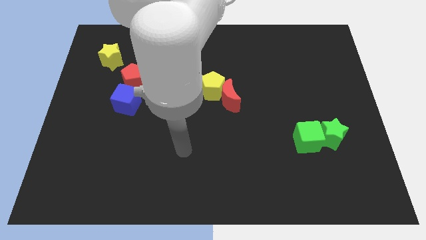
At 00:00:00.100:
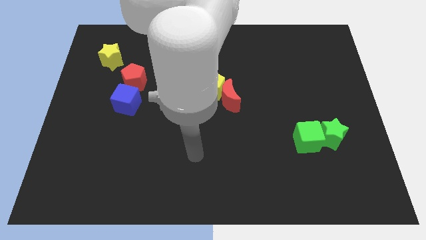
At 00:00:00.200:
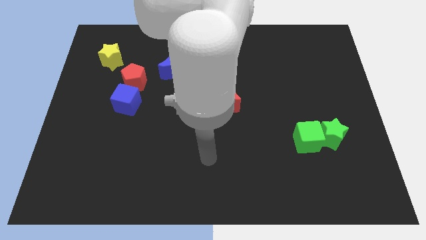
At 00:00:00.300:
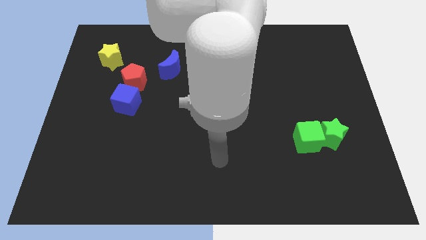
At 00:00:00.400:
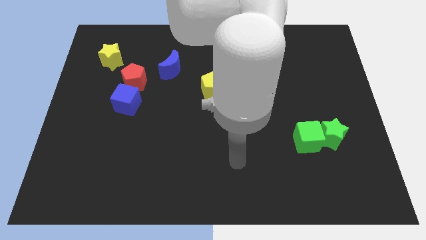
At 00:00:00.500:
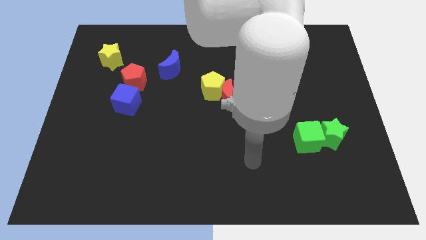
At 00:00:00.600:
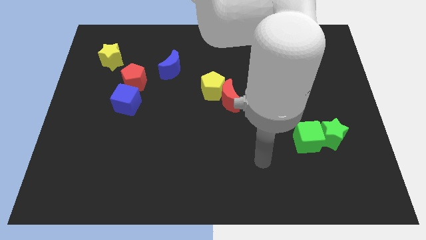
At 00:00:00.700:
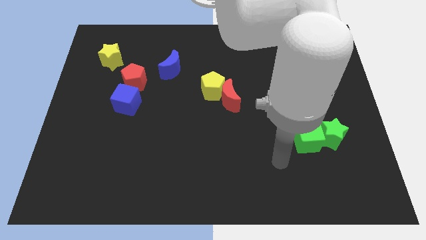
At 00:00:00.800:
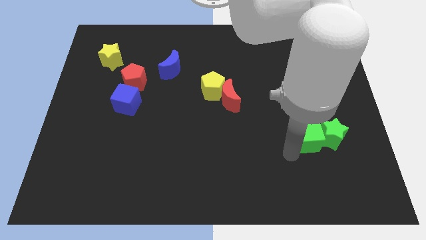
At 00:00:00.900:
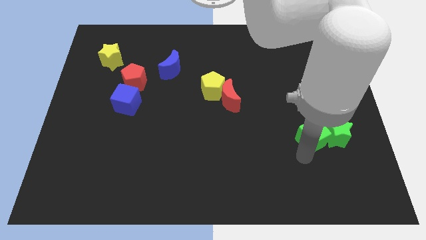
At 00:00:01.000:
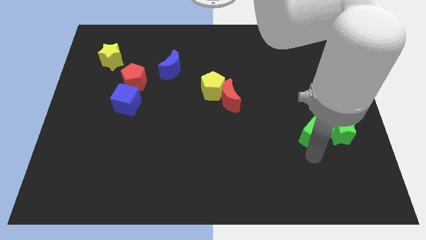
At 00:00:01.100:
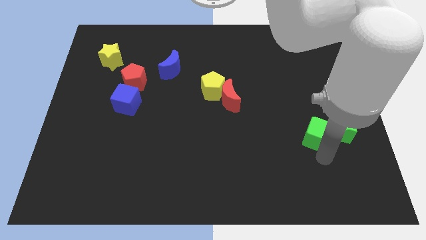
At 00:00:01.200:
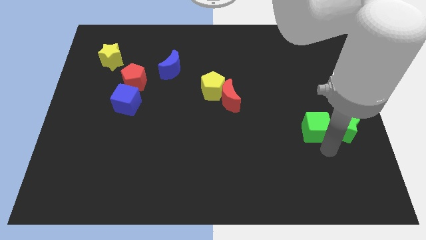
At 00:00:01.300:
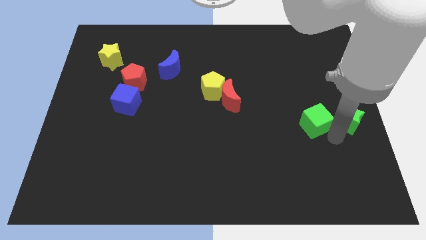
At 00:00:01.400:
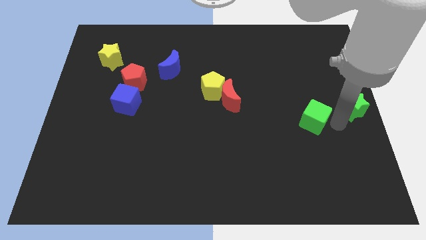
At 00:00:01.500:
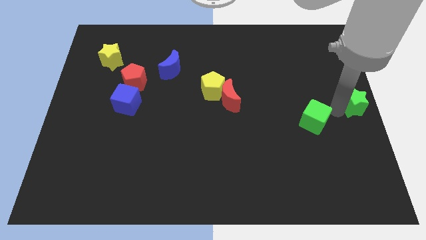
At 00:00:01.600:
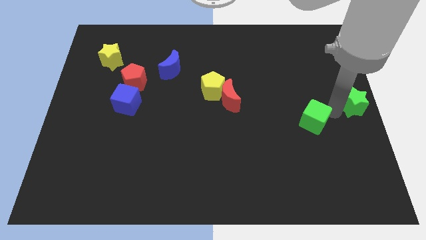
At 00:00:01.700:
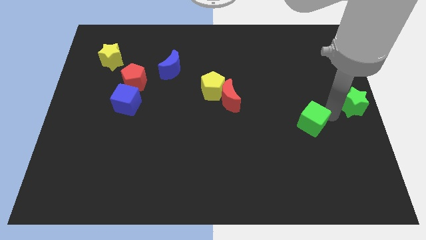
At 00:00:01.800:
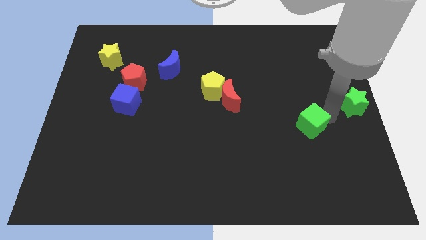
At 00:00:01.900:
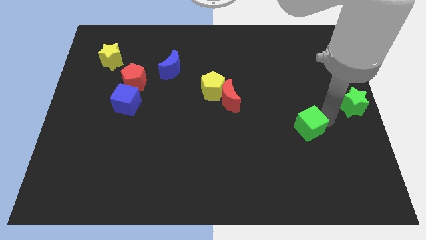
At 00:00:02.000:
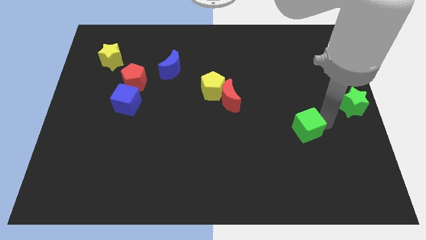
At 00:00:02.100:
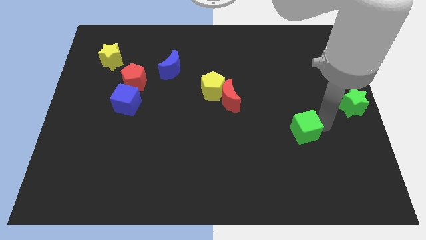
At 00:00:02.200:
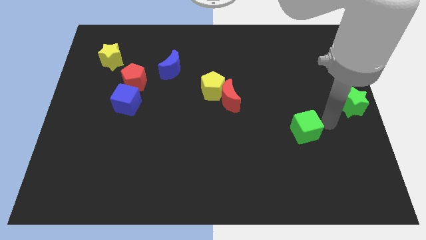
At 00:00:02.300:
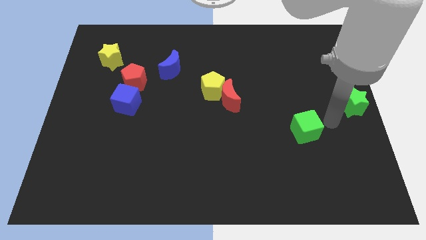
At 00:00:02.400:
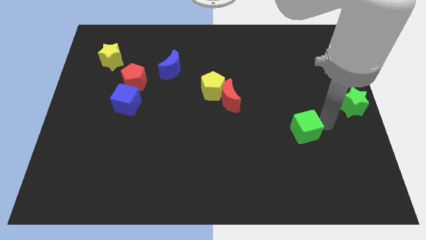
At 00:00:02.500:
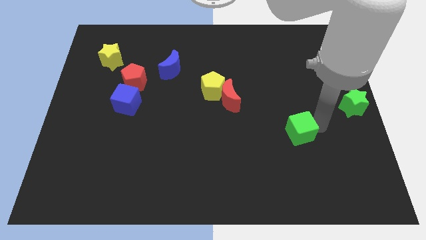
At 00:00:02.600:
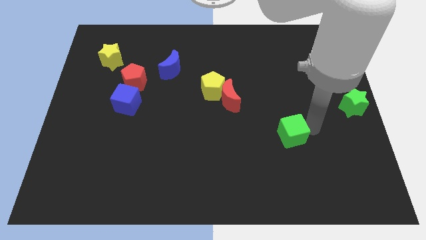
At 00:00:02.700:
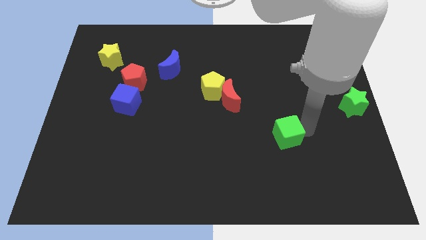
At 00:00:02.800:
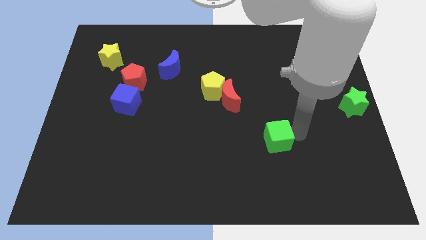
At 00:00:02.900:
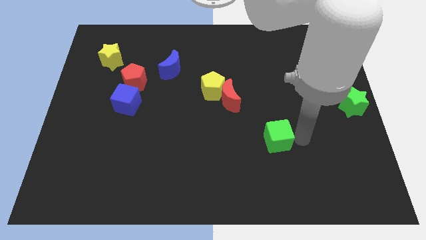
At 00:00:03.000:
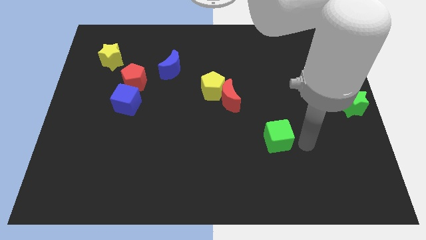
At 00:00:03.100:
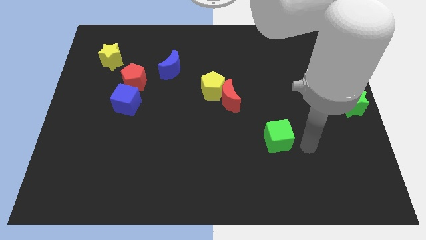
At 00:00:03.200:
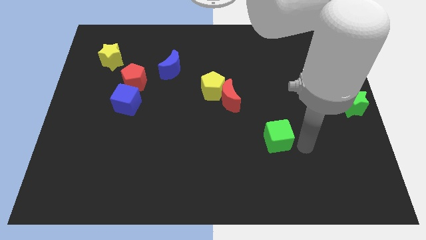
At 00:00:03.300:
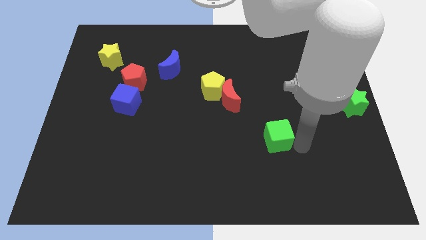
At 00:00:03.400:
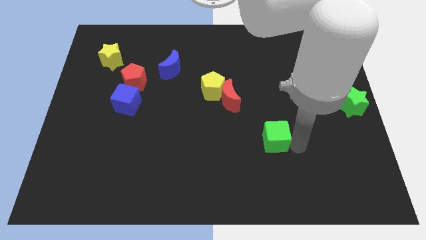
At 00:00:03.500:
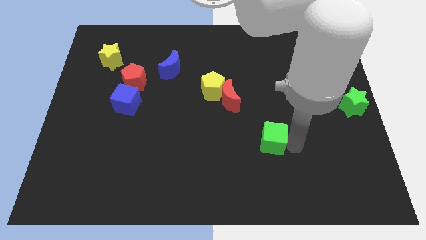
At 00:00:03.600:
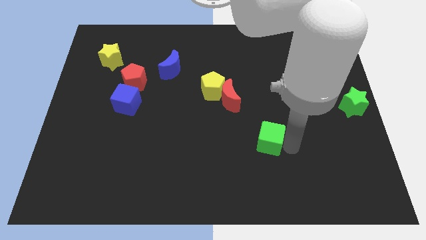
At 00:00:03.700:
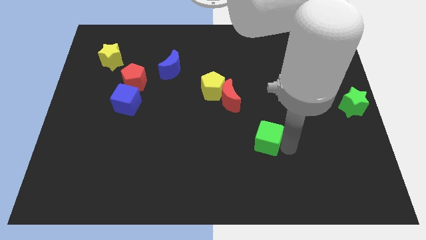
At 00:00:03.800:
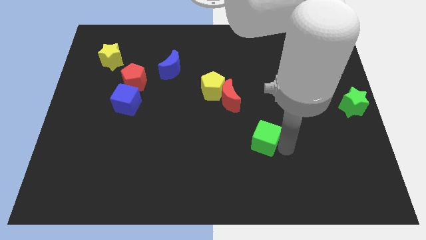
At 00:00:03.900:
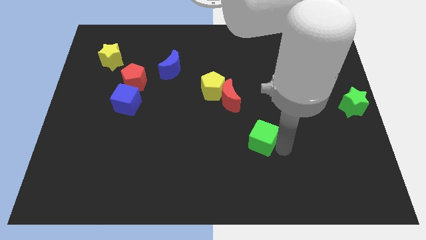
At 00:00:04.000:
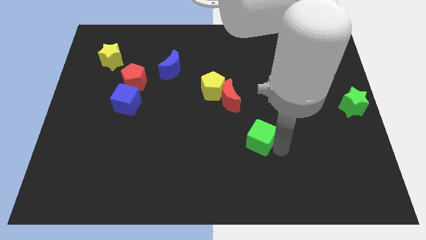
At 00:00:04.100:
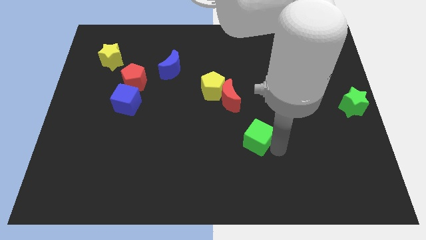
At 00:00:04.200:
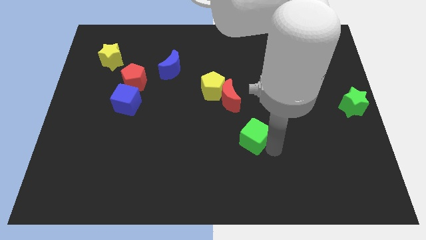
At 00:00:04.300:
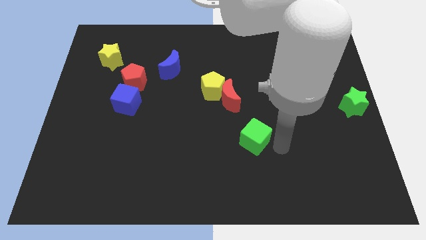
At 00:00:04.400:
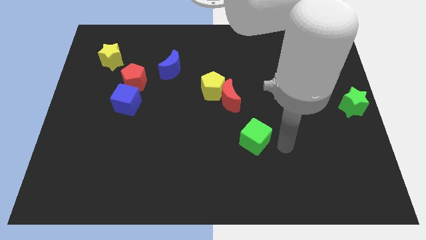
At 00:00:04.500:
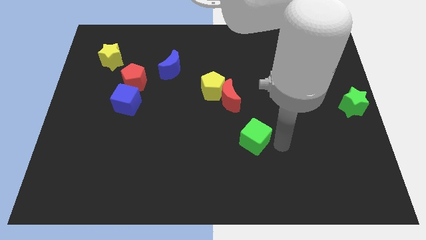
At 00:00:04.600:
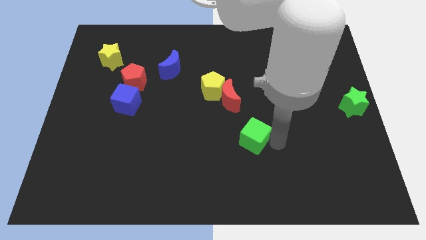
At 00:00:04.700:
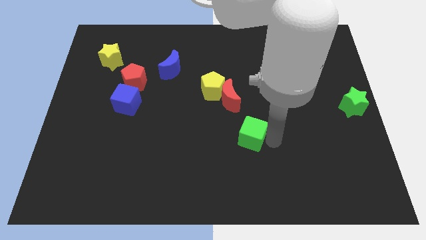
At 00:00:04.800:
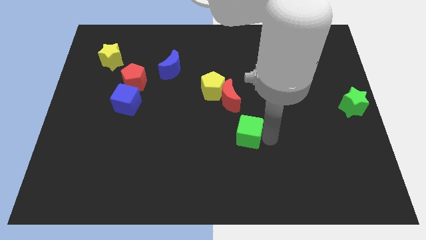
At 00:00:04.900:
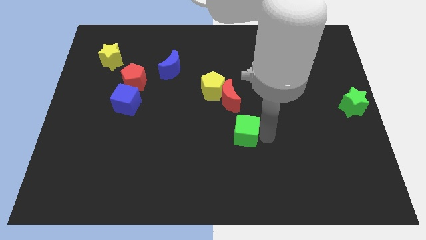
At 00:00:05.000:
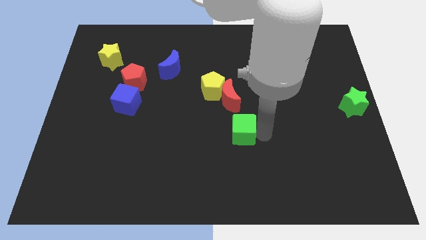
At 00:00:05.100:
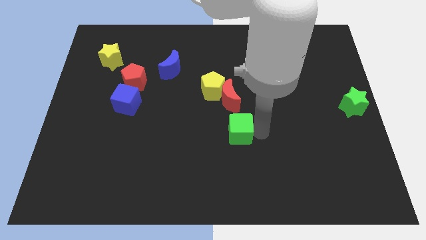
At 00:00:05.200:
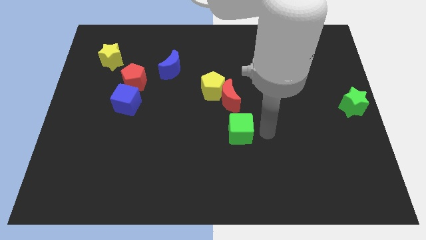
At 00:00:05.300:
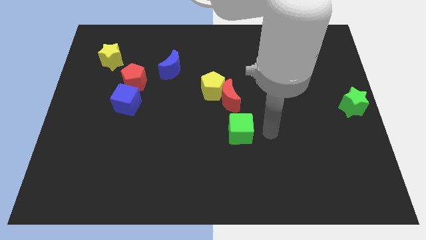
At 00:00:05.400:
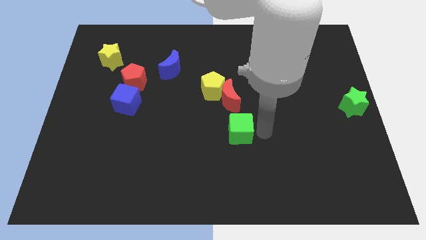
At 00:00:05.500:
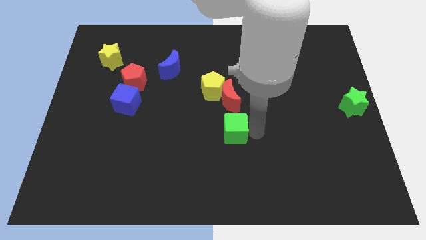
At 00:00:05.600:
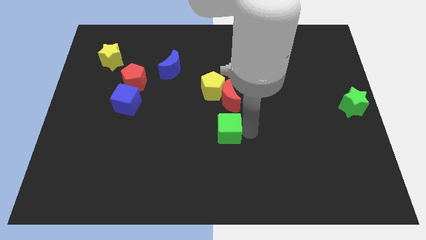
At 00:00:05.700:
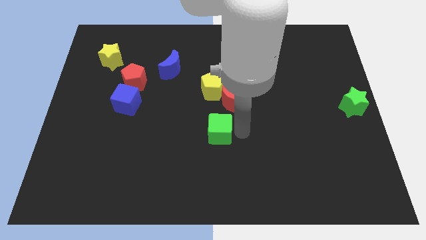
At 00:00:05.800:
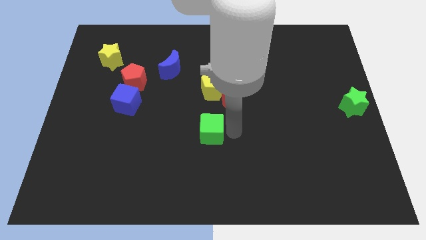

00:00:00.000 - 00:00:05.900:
move the green cube left

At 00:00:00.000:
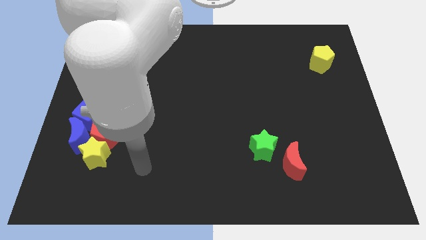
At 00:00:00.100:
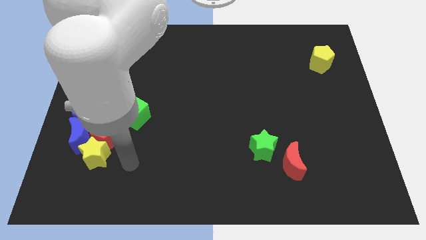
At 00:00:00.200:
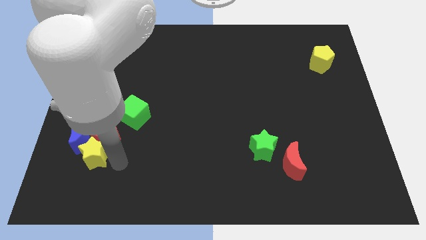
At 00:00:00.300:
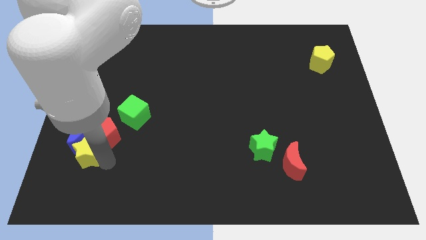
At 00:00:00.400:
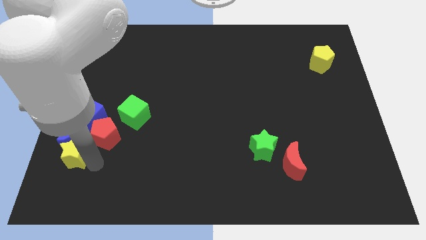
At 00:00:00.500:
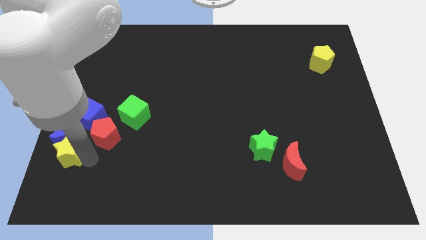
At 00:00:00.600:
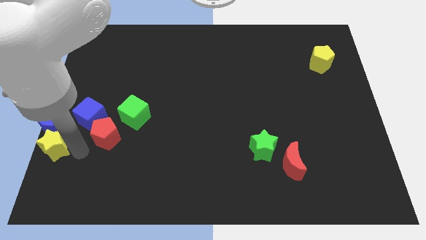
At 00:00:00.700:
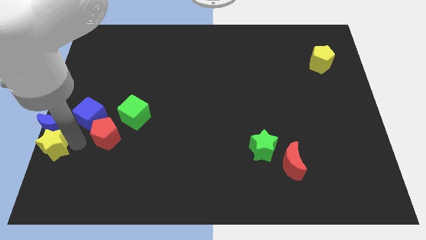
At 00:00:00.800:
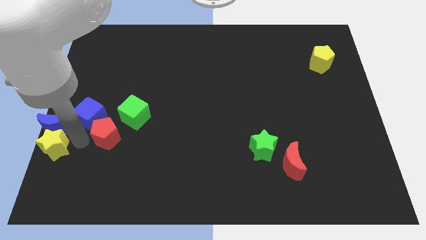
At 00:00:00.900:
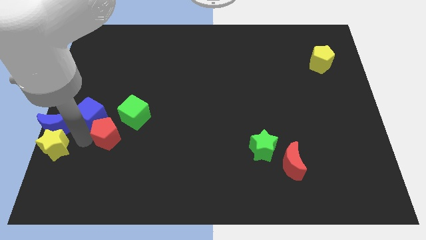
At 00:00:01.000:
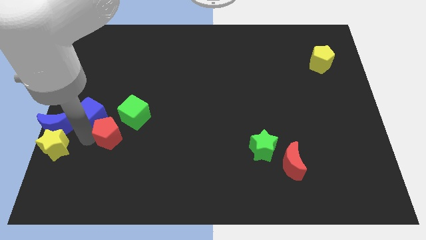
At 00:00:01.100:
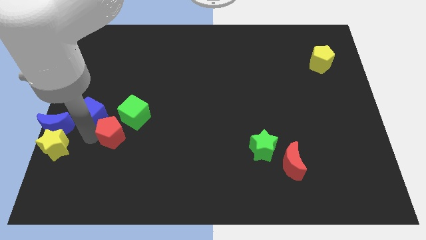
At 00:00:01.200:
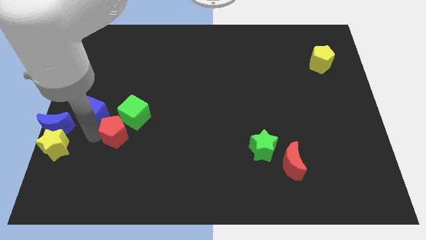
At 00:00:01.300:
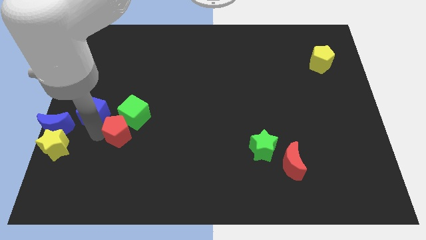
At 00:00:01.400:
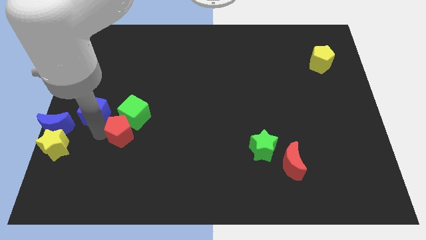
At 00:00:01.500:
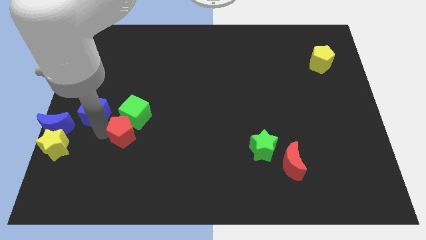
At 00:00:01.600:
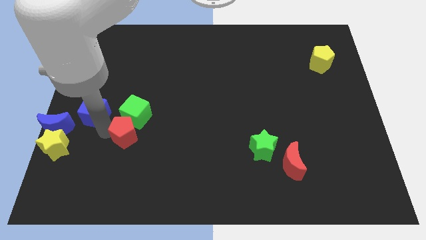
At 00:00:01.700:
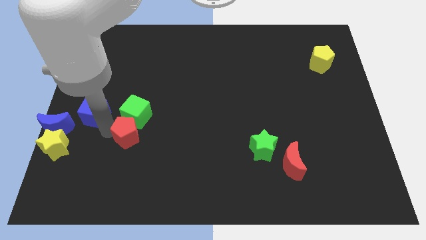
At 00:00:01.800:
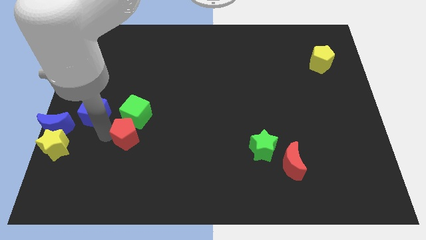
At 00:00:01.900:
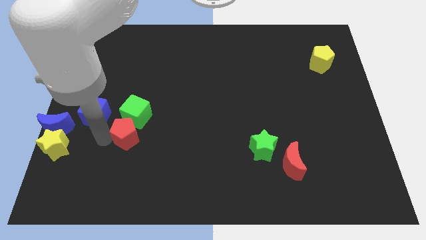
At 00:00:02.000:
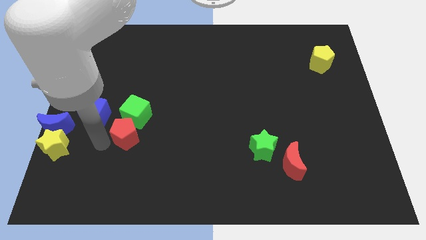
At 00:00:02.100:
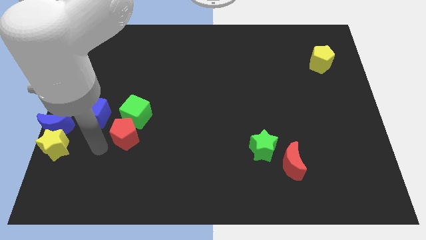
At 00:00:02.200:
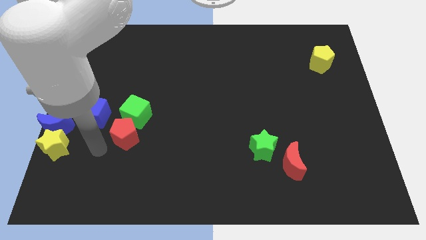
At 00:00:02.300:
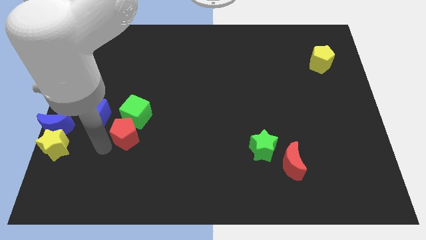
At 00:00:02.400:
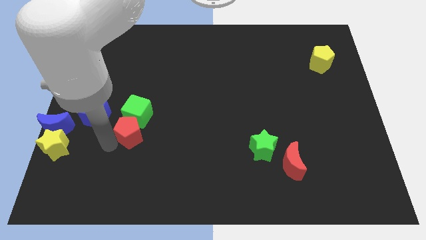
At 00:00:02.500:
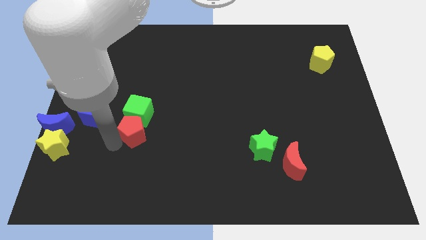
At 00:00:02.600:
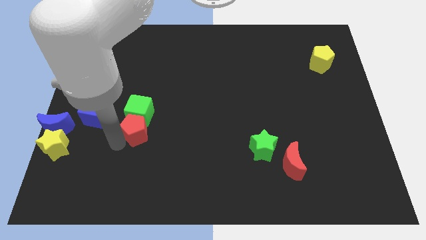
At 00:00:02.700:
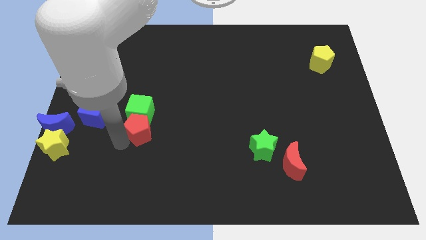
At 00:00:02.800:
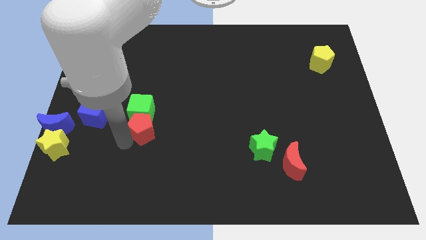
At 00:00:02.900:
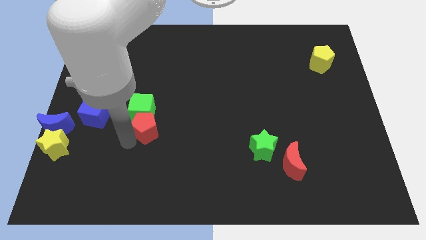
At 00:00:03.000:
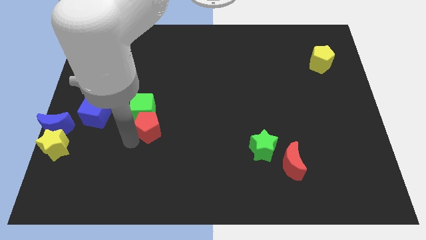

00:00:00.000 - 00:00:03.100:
slide the red pentagon upwards and then to the right slightly
